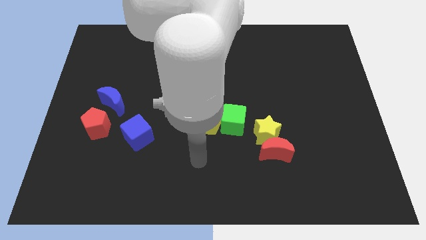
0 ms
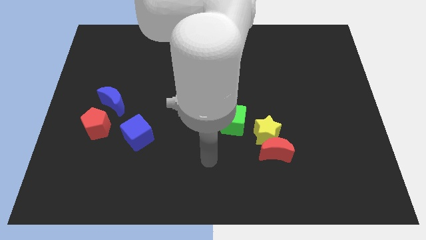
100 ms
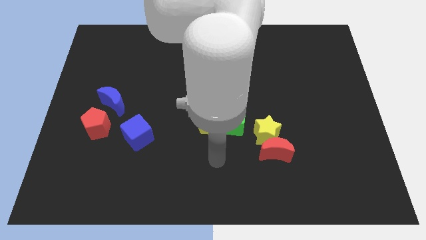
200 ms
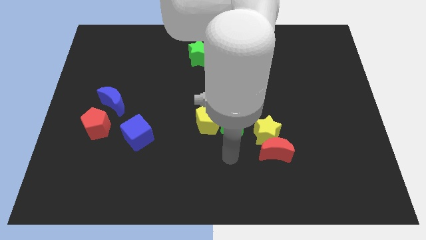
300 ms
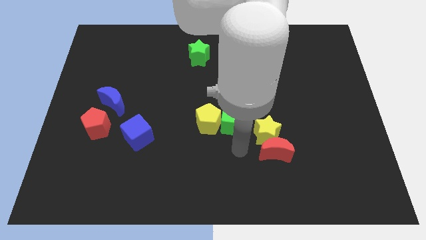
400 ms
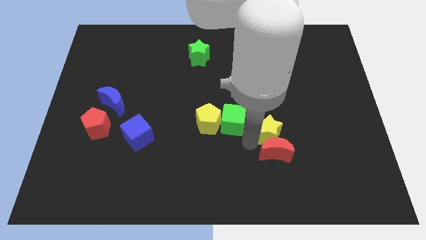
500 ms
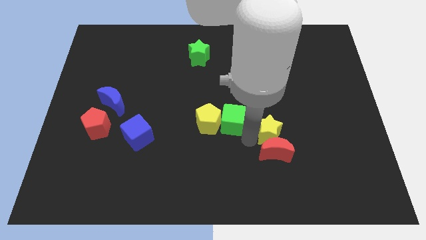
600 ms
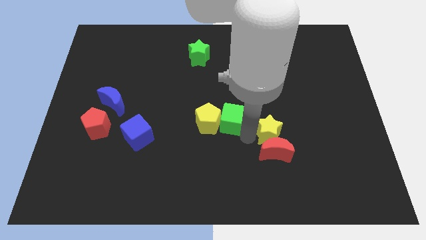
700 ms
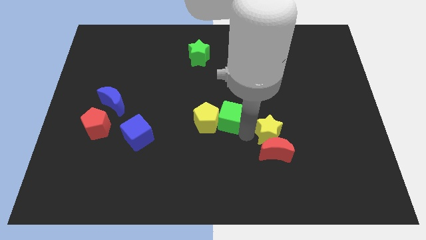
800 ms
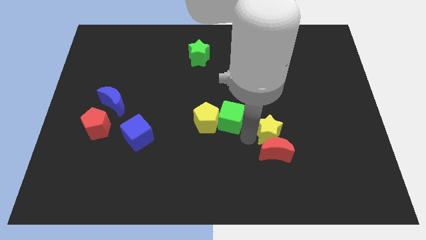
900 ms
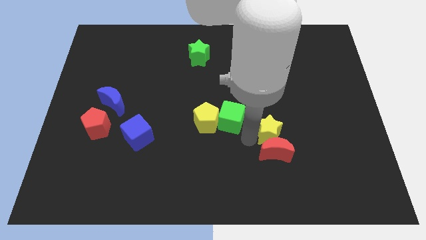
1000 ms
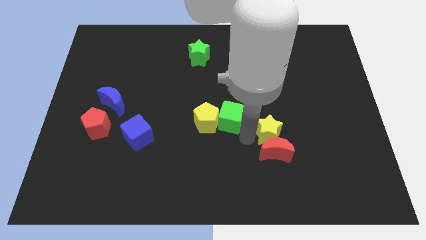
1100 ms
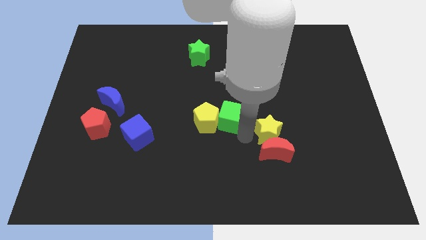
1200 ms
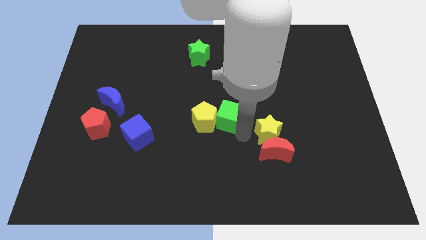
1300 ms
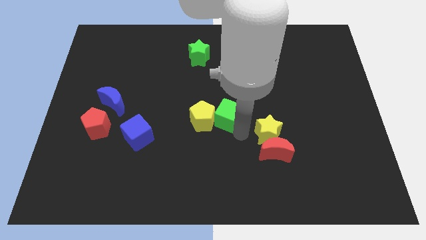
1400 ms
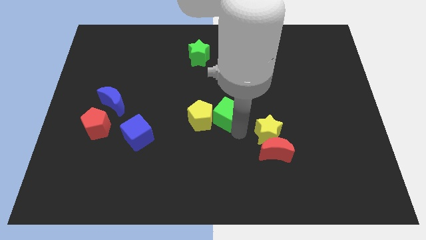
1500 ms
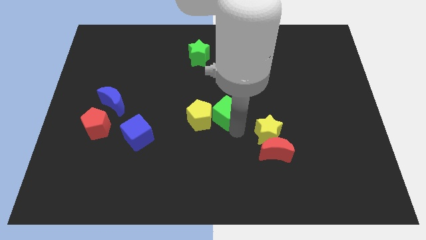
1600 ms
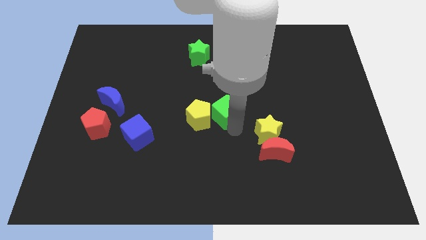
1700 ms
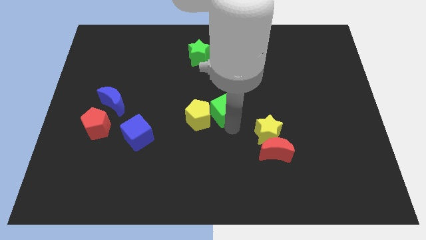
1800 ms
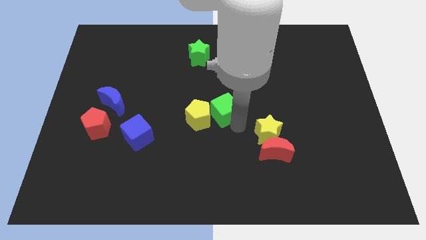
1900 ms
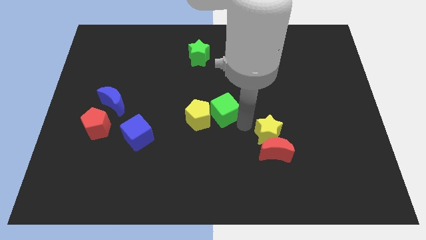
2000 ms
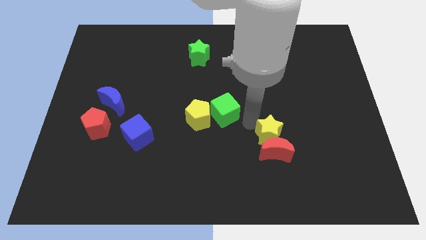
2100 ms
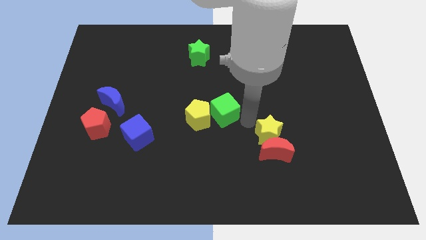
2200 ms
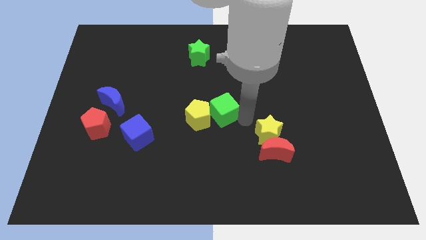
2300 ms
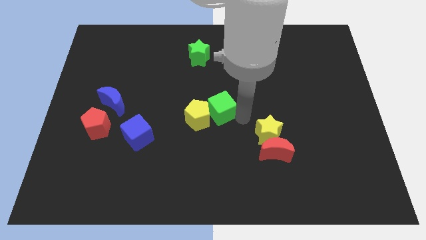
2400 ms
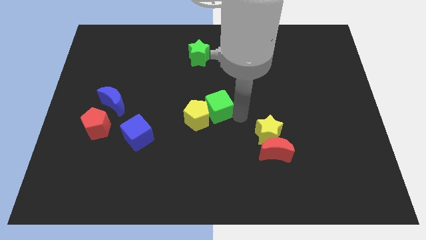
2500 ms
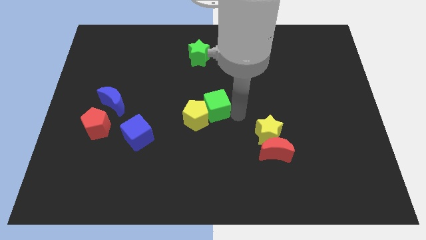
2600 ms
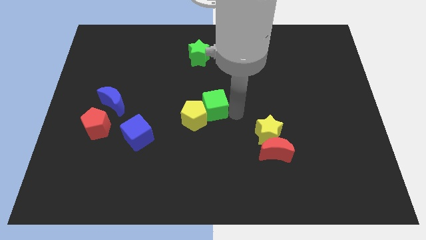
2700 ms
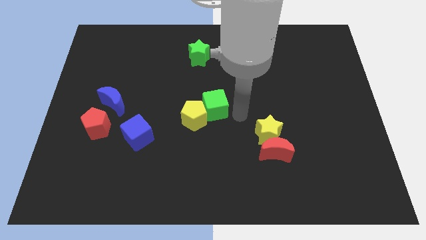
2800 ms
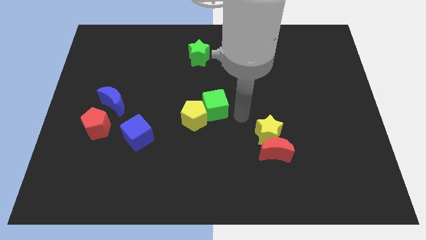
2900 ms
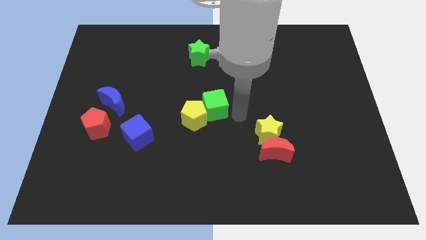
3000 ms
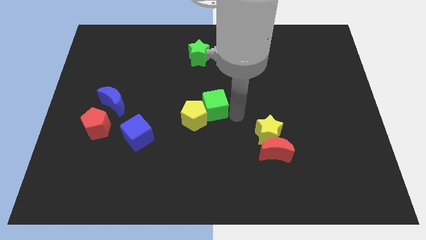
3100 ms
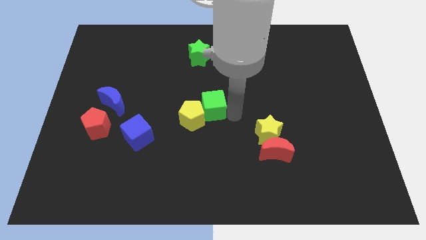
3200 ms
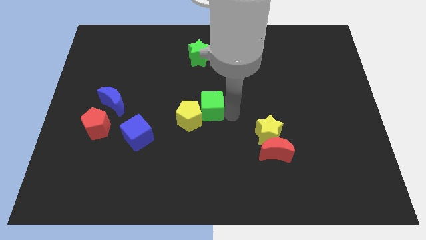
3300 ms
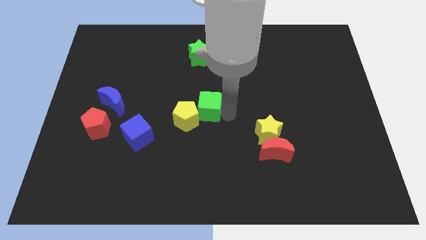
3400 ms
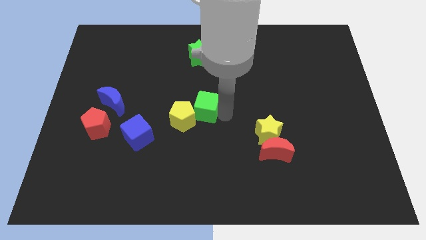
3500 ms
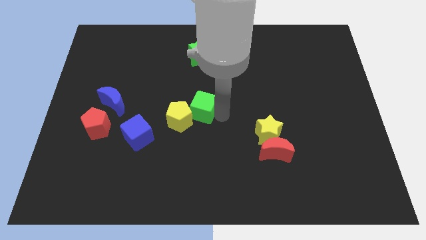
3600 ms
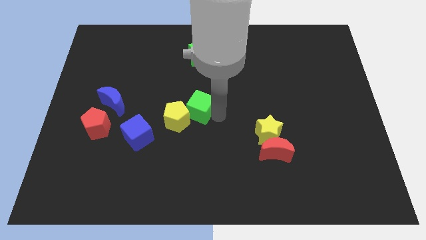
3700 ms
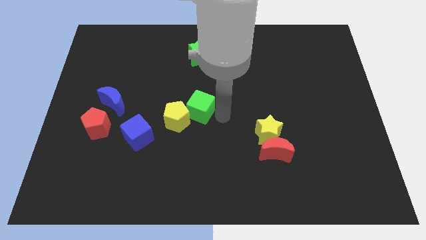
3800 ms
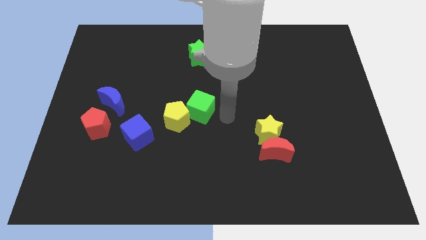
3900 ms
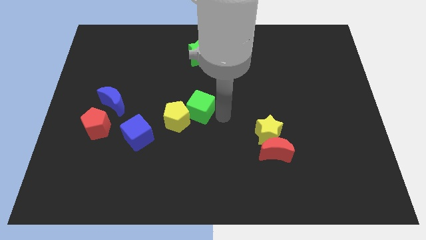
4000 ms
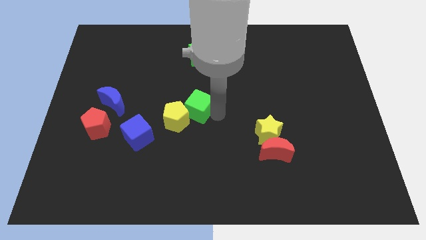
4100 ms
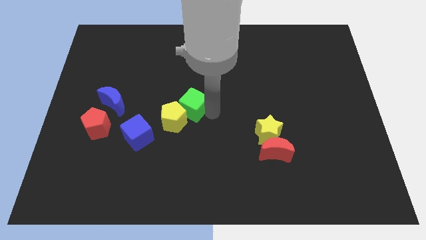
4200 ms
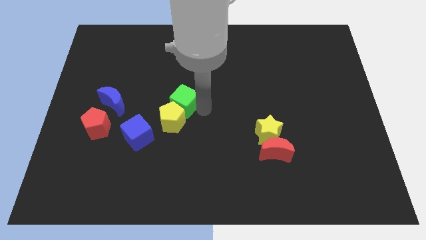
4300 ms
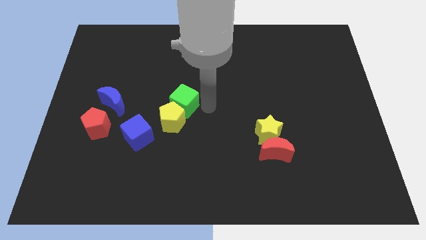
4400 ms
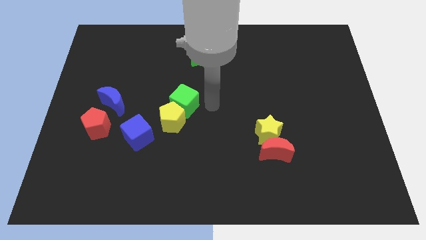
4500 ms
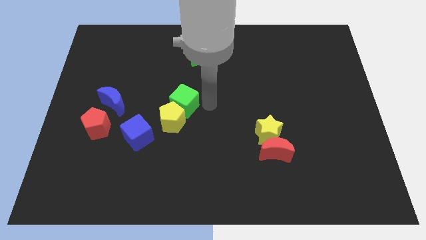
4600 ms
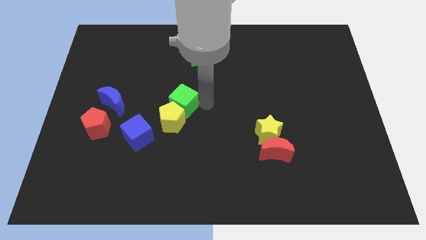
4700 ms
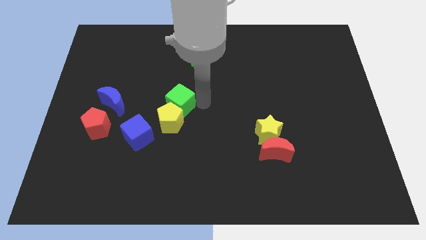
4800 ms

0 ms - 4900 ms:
put the green cube right of the blue moon

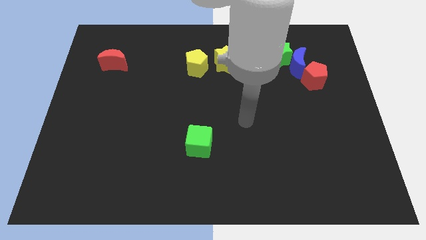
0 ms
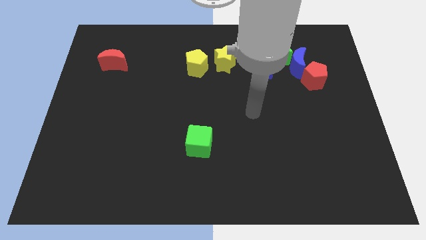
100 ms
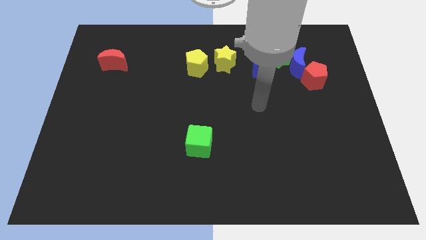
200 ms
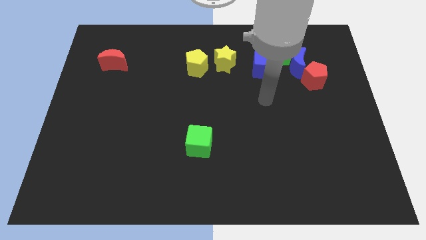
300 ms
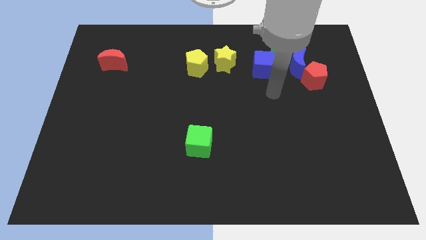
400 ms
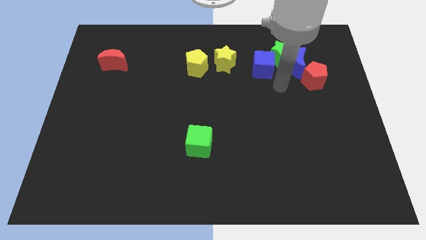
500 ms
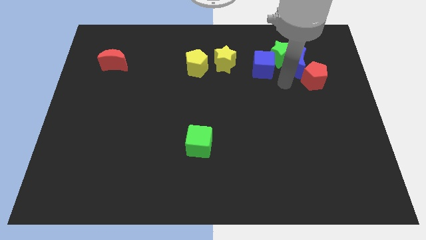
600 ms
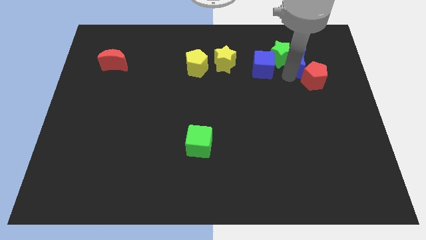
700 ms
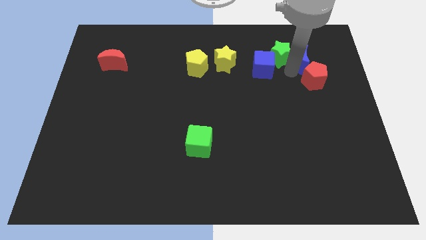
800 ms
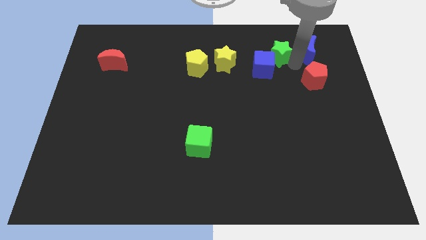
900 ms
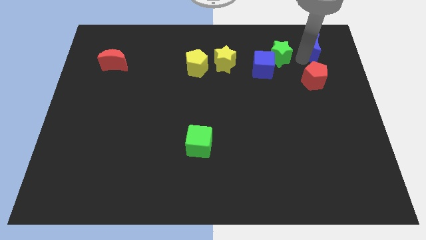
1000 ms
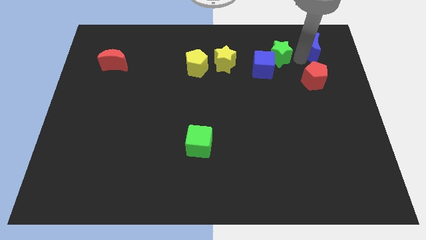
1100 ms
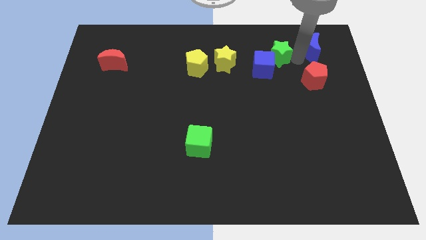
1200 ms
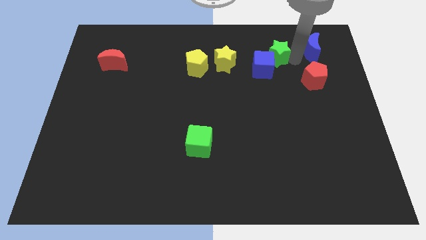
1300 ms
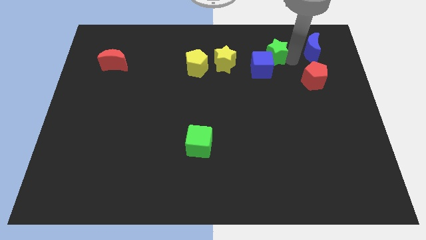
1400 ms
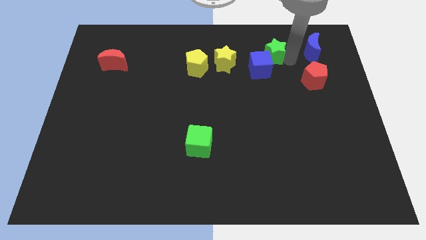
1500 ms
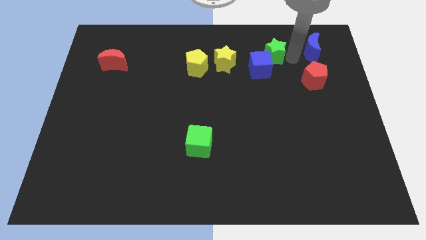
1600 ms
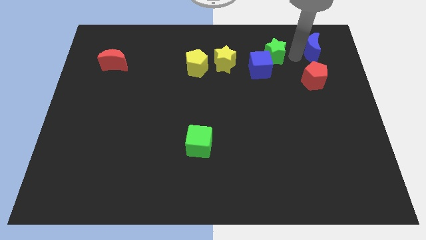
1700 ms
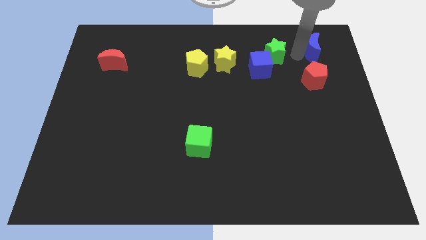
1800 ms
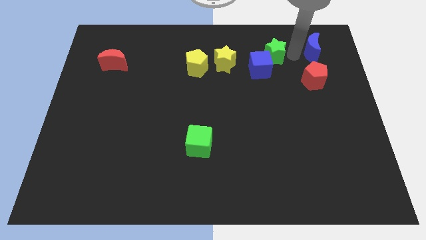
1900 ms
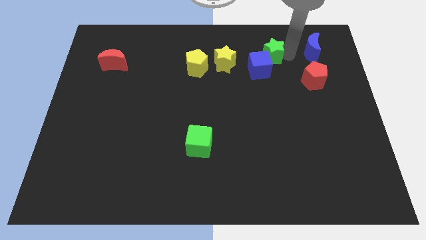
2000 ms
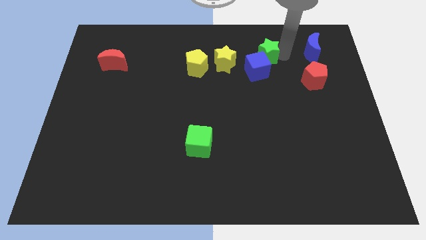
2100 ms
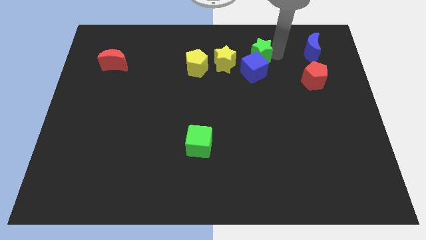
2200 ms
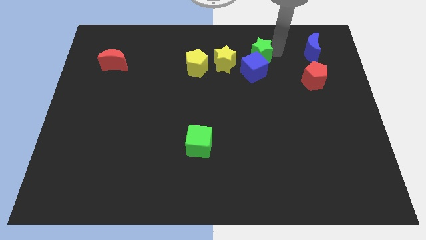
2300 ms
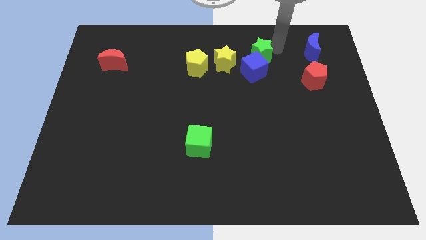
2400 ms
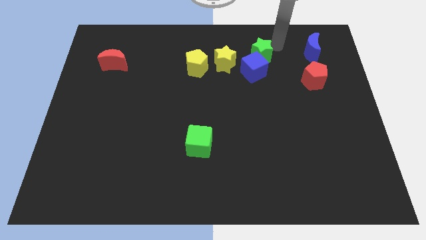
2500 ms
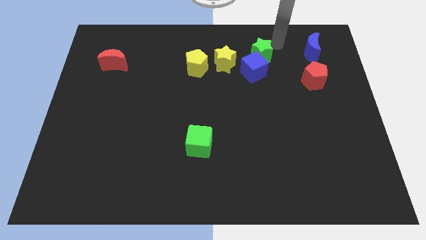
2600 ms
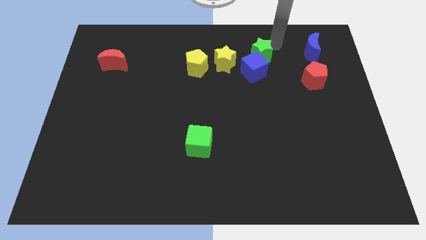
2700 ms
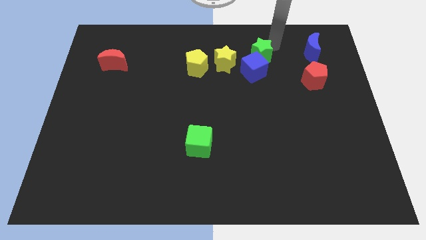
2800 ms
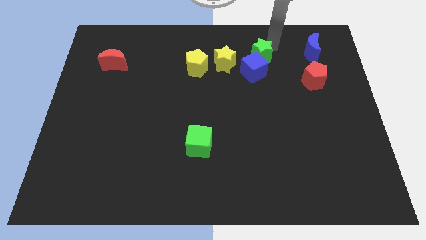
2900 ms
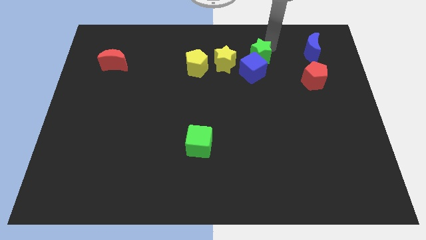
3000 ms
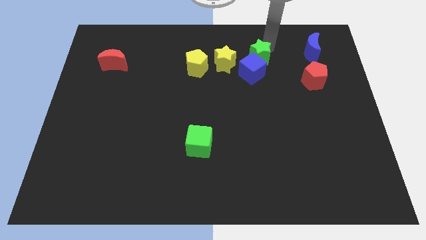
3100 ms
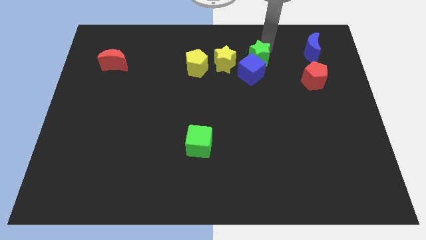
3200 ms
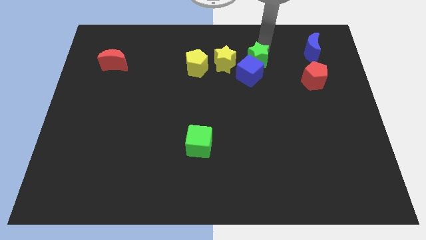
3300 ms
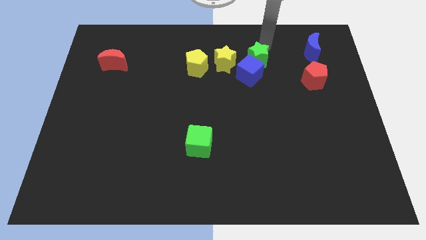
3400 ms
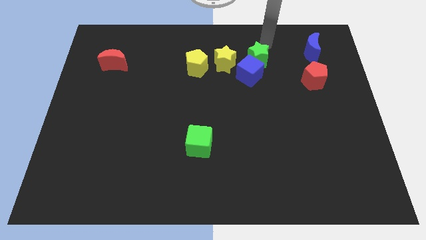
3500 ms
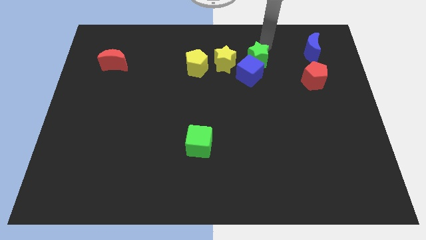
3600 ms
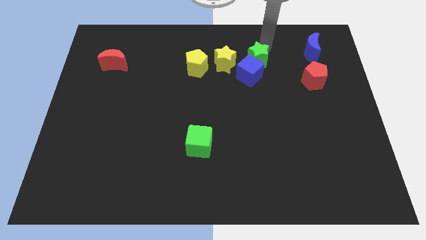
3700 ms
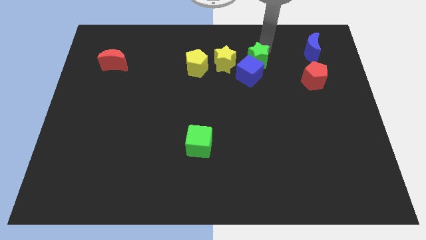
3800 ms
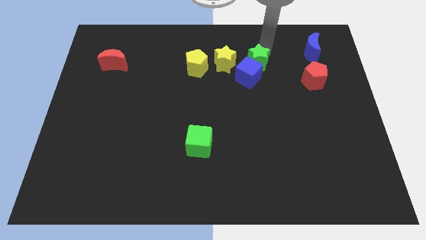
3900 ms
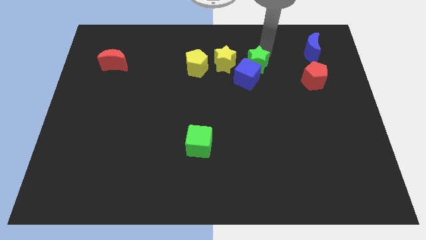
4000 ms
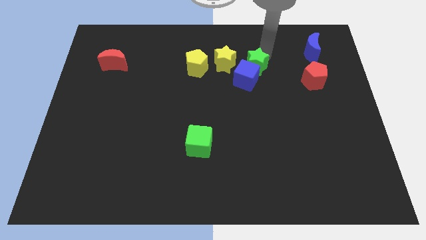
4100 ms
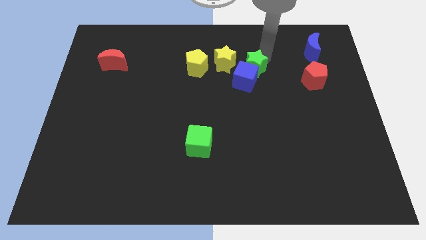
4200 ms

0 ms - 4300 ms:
slide the green star to the bottom right of the yellow star
